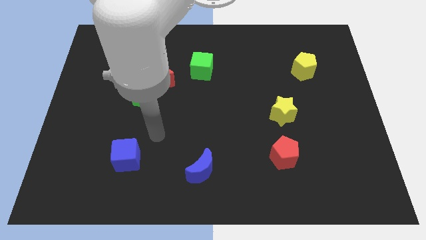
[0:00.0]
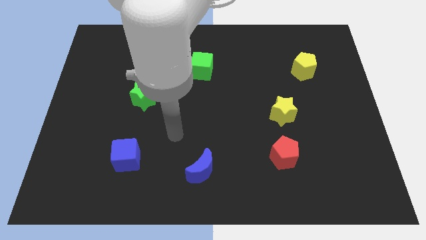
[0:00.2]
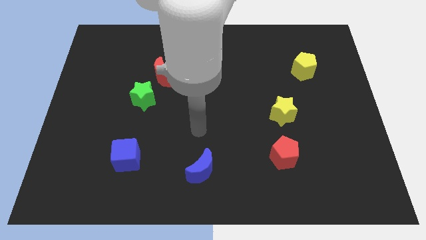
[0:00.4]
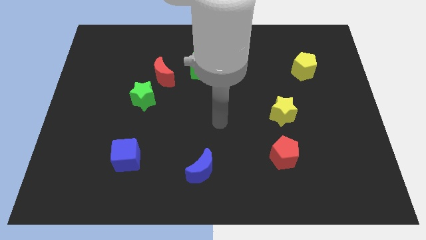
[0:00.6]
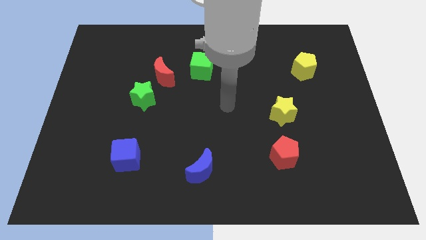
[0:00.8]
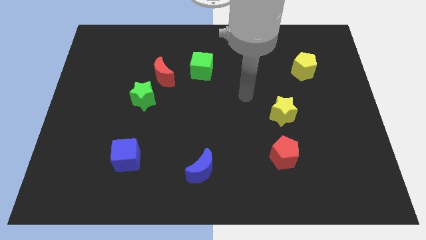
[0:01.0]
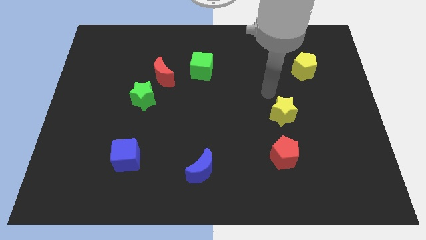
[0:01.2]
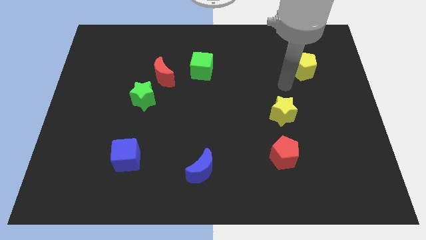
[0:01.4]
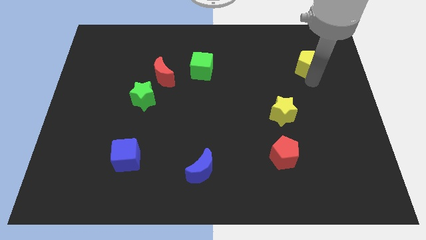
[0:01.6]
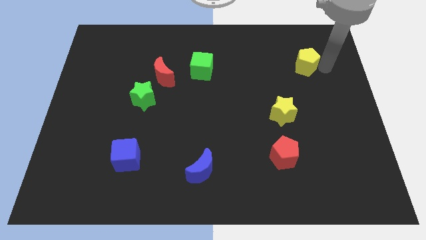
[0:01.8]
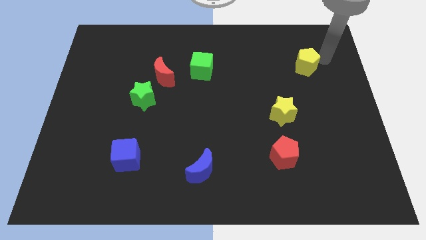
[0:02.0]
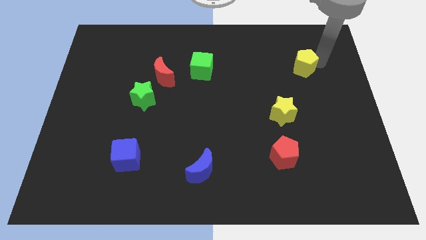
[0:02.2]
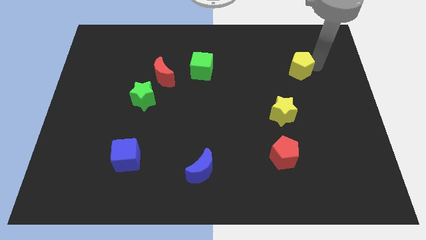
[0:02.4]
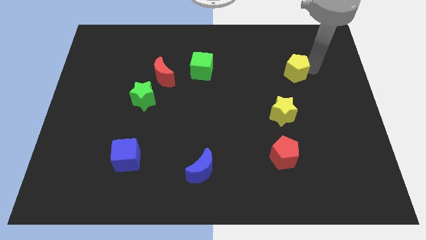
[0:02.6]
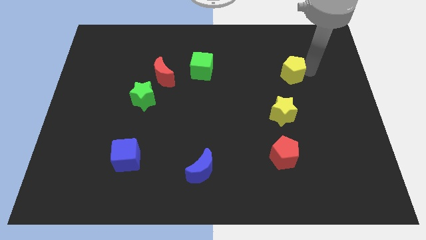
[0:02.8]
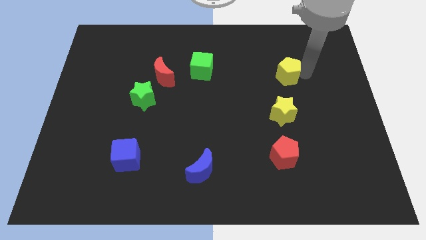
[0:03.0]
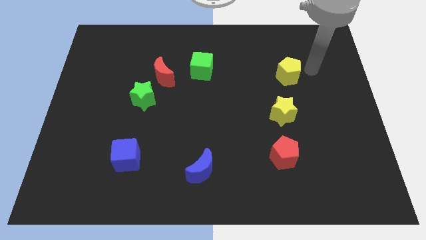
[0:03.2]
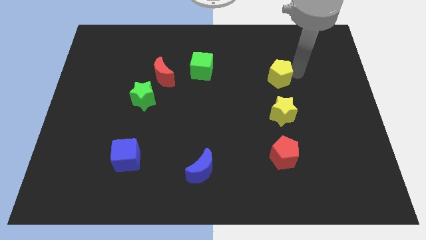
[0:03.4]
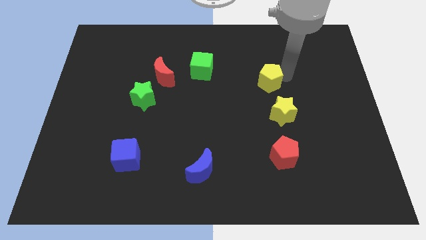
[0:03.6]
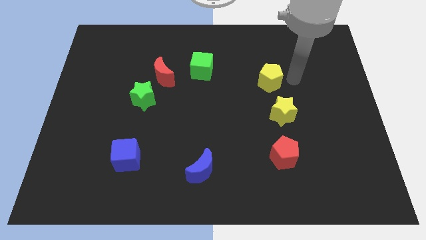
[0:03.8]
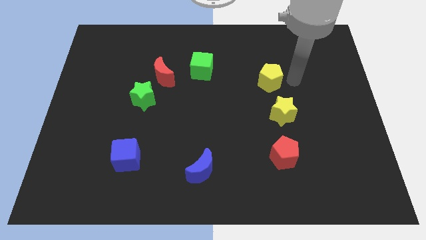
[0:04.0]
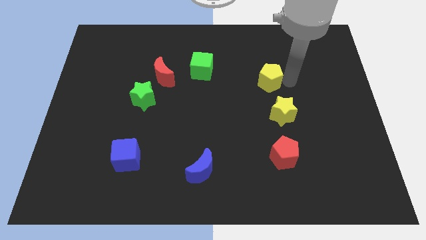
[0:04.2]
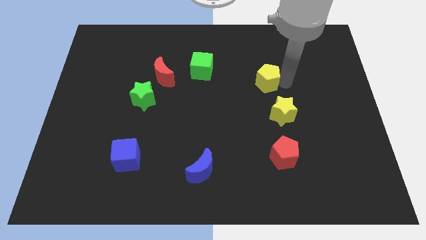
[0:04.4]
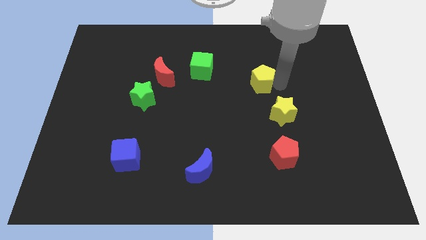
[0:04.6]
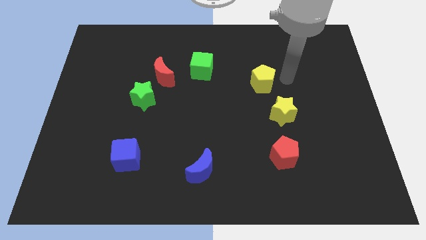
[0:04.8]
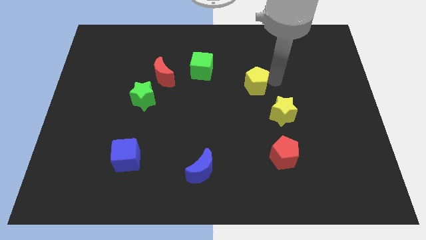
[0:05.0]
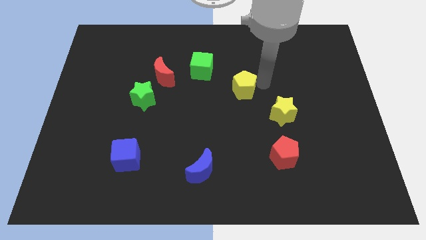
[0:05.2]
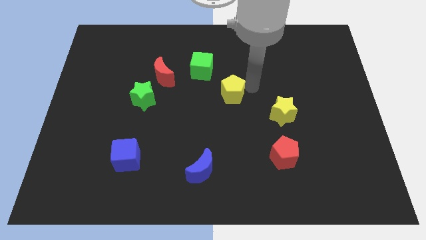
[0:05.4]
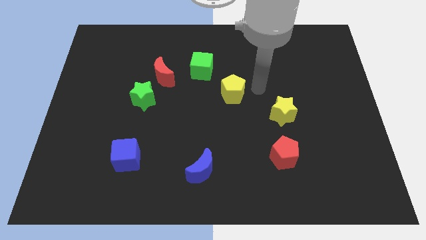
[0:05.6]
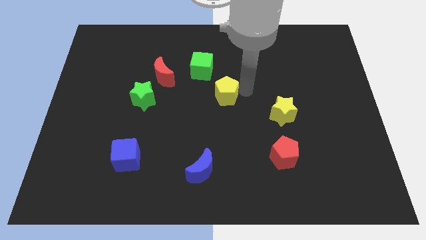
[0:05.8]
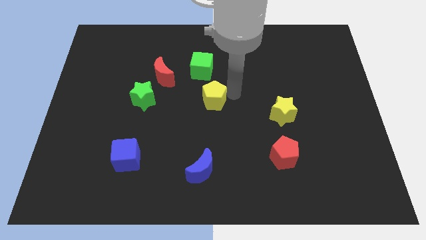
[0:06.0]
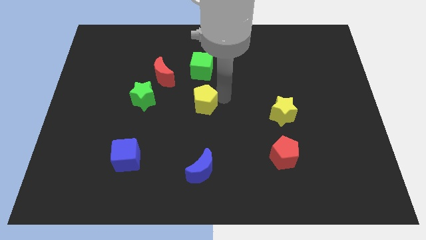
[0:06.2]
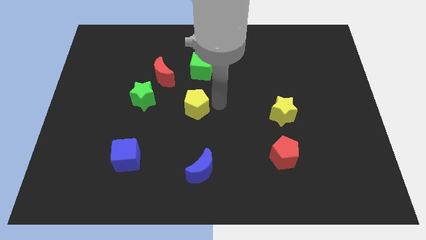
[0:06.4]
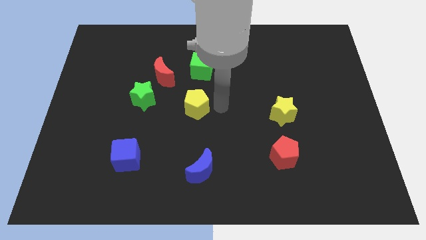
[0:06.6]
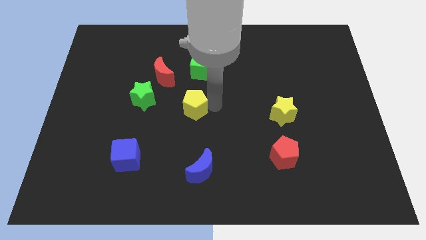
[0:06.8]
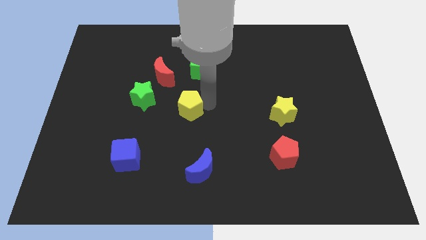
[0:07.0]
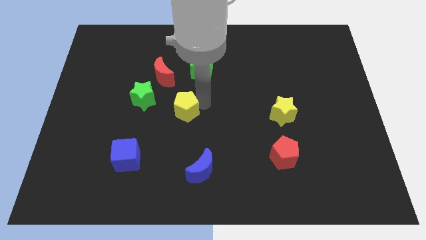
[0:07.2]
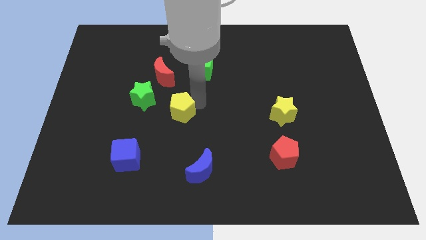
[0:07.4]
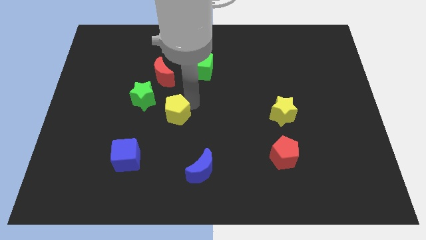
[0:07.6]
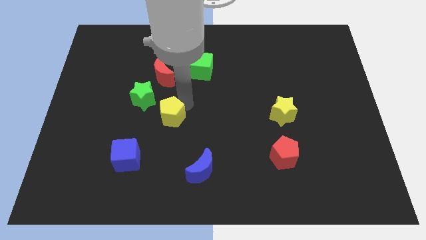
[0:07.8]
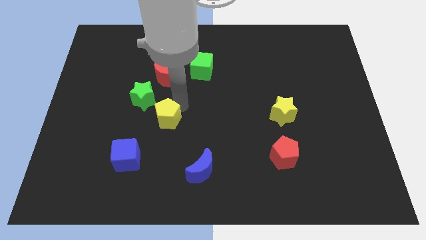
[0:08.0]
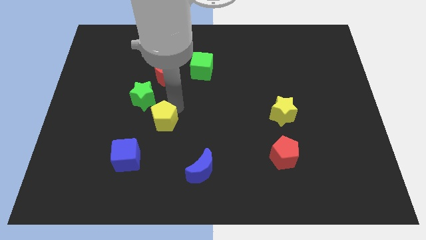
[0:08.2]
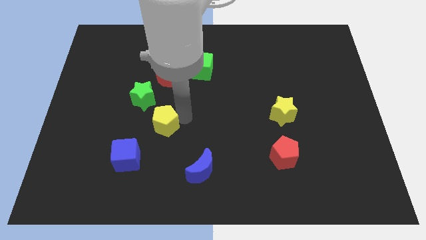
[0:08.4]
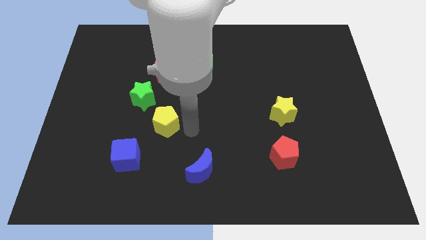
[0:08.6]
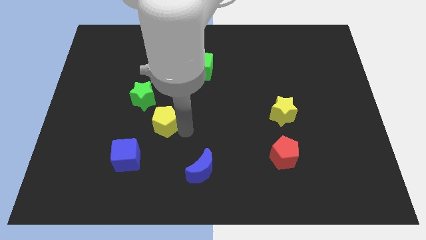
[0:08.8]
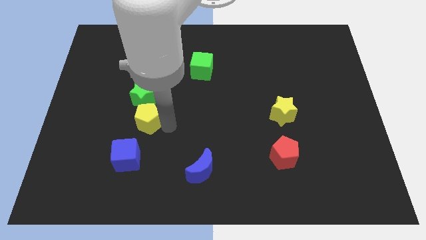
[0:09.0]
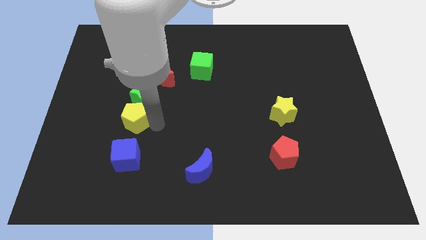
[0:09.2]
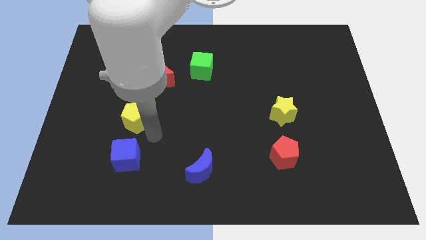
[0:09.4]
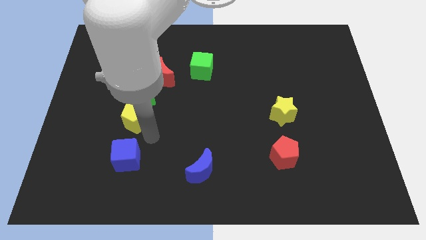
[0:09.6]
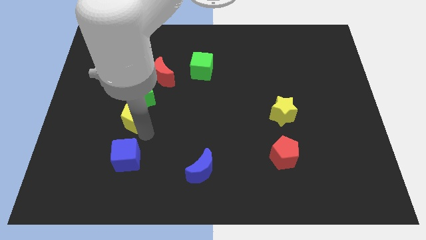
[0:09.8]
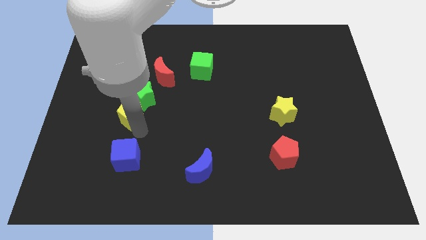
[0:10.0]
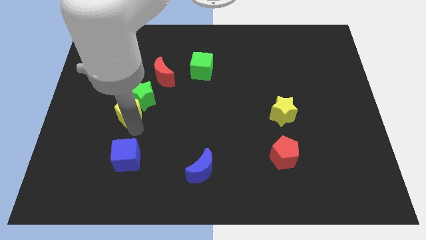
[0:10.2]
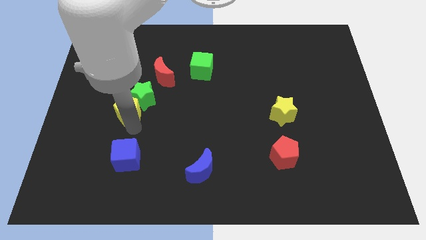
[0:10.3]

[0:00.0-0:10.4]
put the yellow pentagon just left of the green star

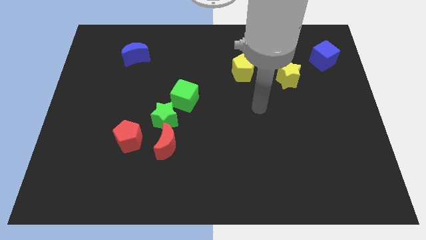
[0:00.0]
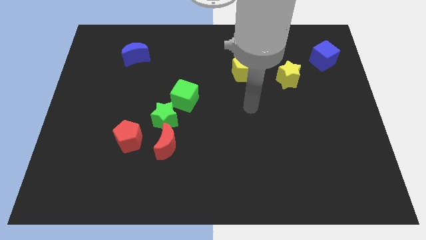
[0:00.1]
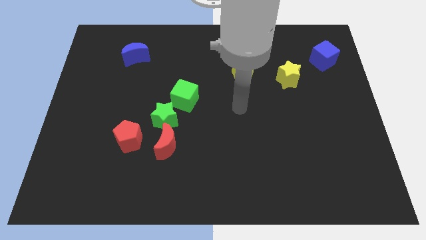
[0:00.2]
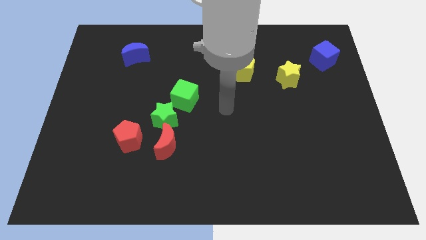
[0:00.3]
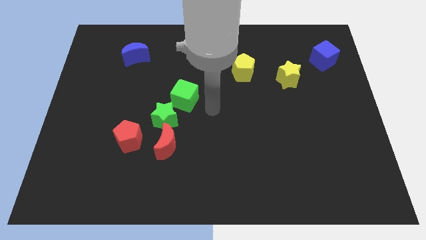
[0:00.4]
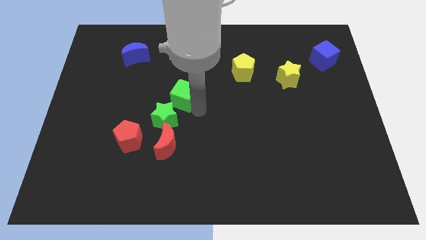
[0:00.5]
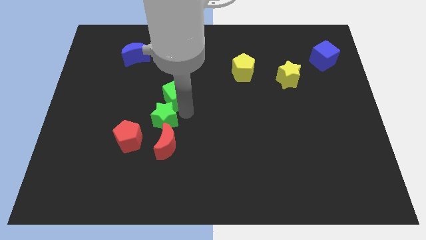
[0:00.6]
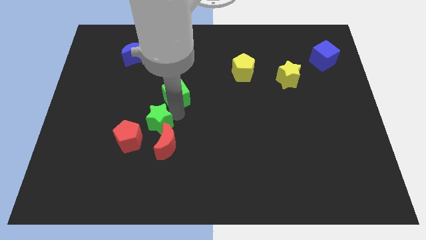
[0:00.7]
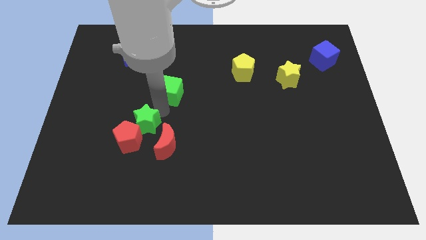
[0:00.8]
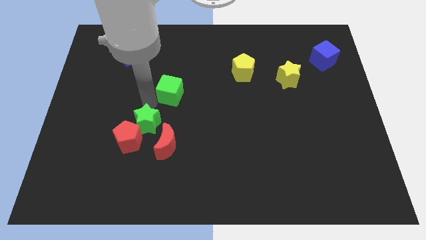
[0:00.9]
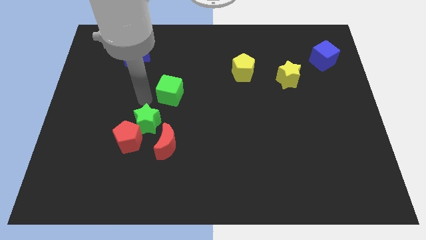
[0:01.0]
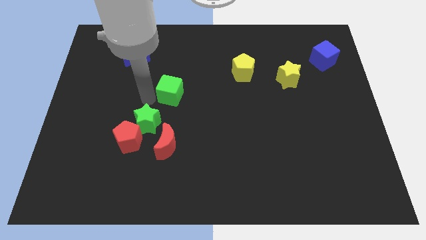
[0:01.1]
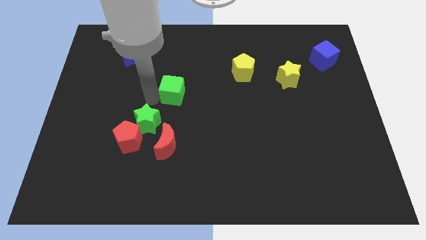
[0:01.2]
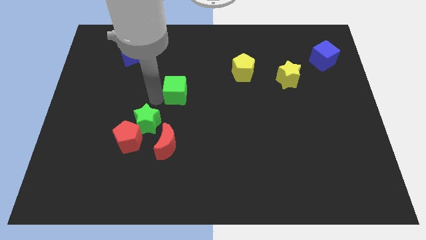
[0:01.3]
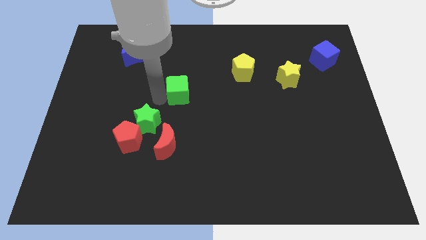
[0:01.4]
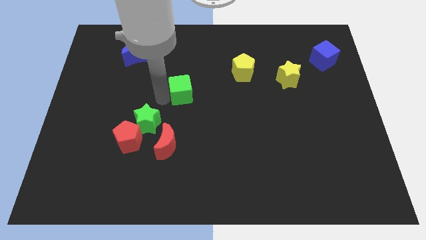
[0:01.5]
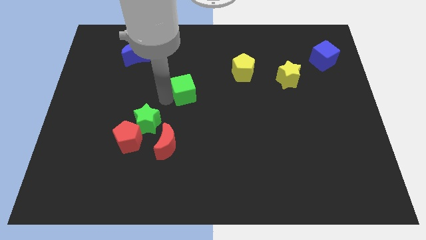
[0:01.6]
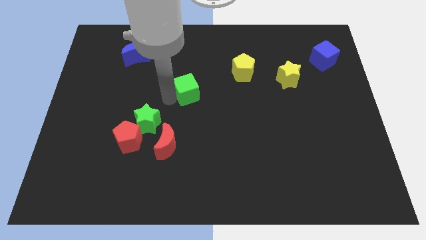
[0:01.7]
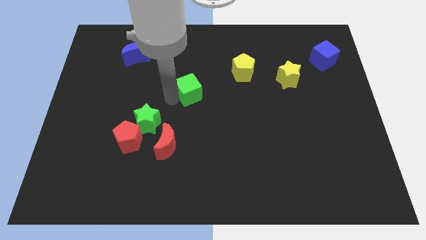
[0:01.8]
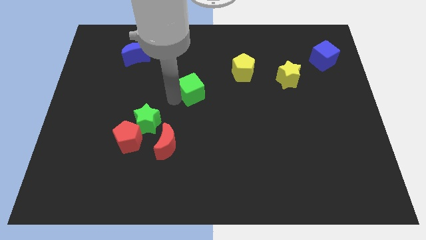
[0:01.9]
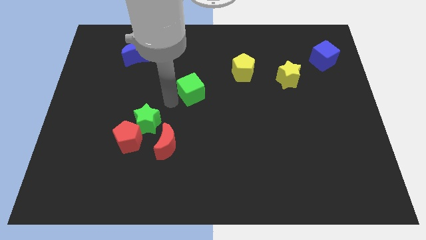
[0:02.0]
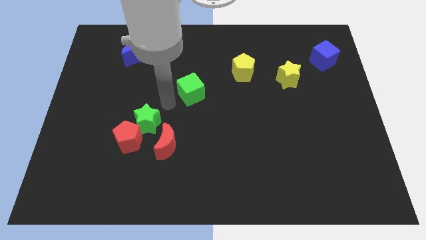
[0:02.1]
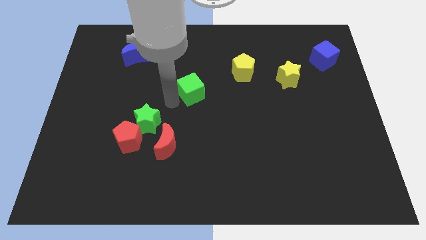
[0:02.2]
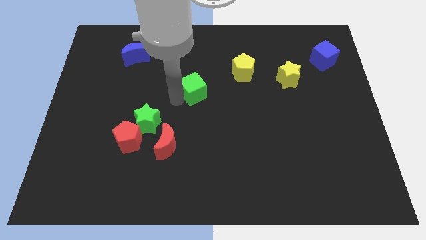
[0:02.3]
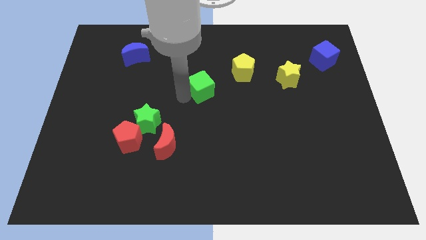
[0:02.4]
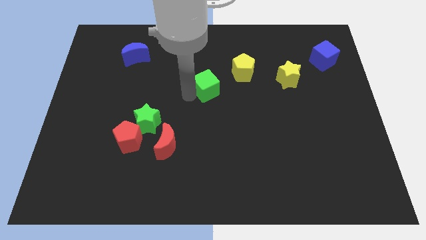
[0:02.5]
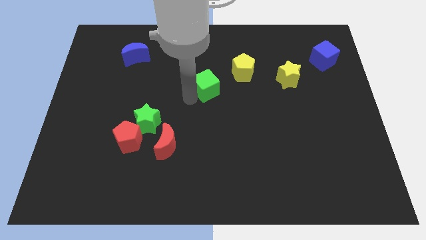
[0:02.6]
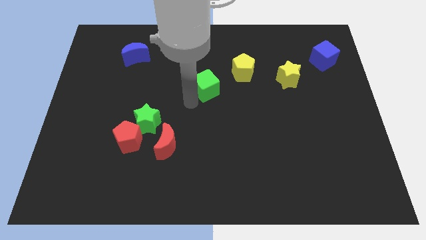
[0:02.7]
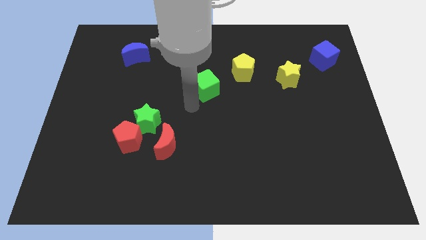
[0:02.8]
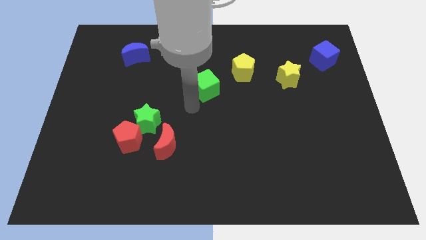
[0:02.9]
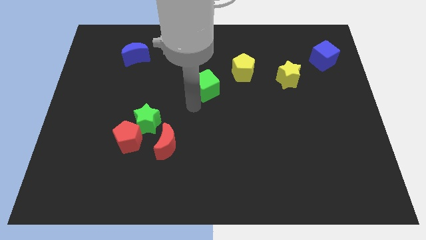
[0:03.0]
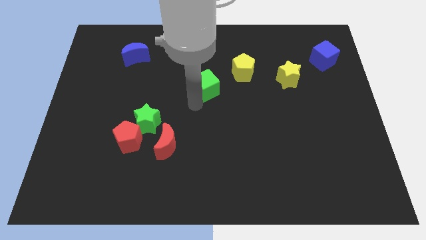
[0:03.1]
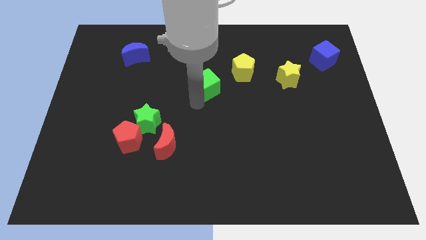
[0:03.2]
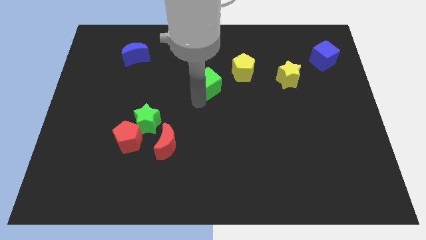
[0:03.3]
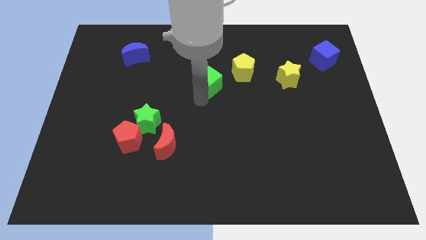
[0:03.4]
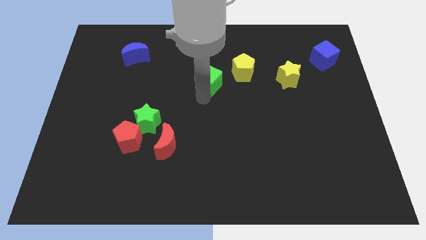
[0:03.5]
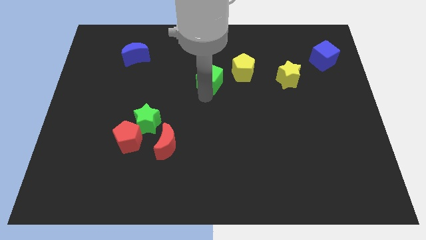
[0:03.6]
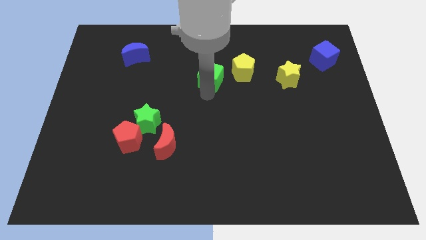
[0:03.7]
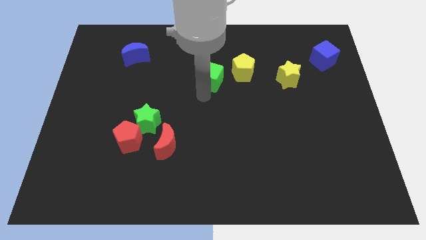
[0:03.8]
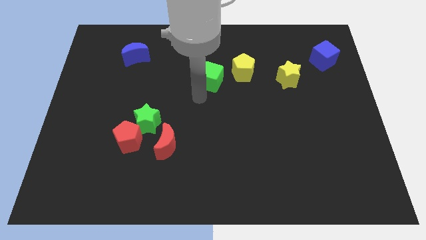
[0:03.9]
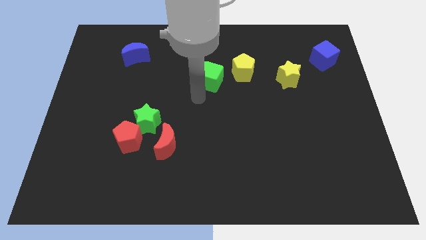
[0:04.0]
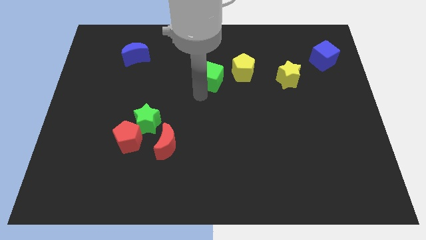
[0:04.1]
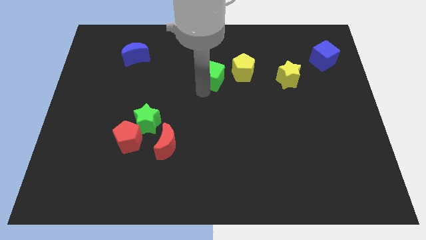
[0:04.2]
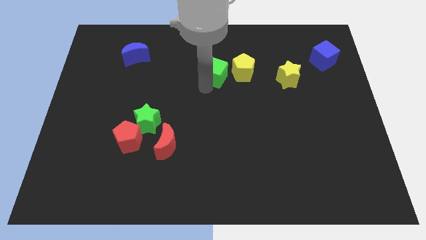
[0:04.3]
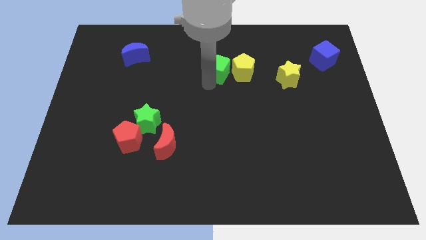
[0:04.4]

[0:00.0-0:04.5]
slide the green cube diagonally up and to the left of the yellow pentagon
